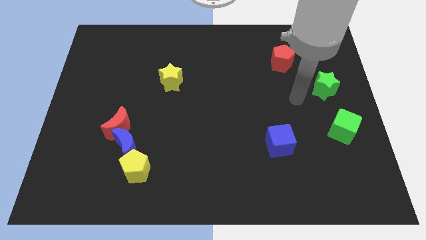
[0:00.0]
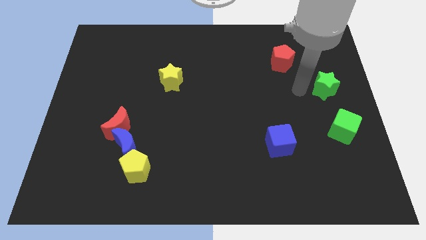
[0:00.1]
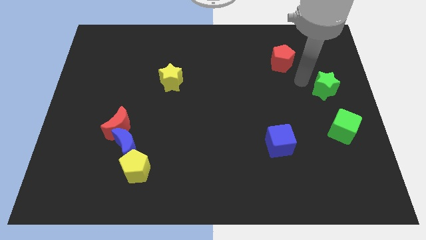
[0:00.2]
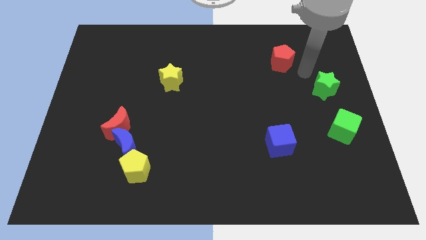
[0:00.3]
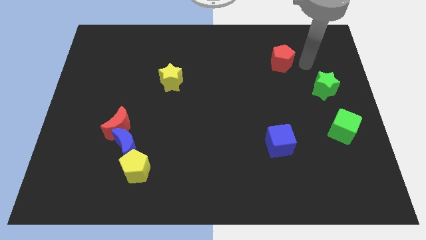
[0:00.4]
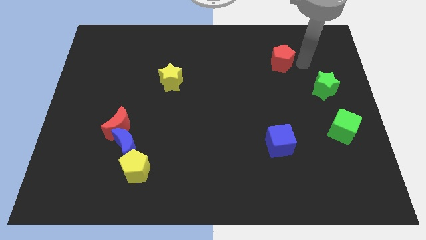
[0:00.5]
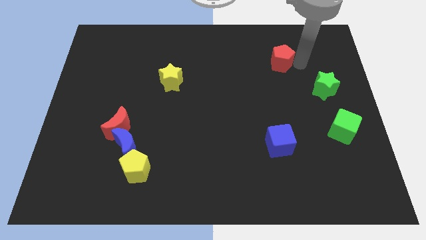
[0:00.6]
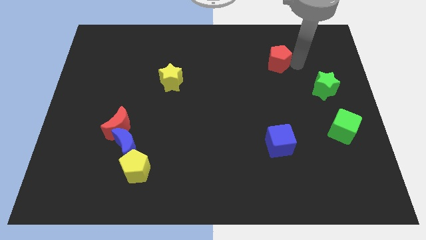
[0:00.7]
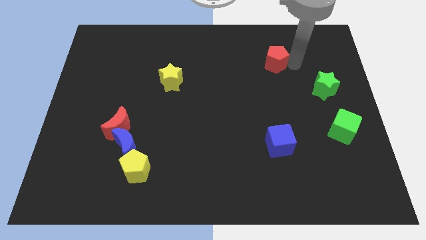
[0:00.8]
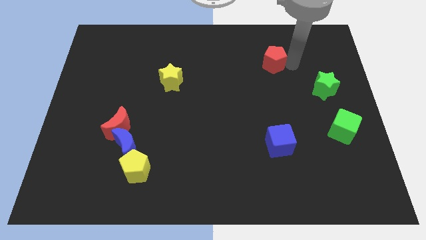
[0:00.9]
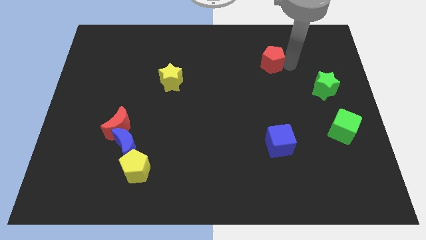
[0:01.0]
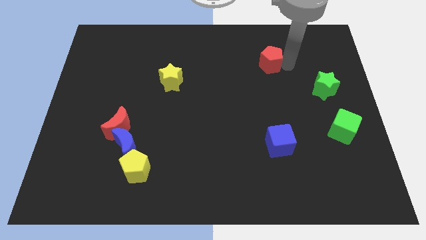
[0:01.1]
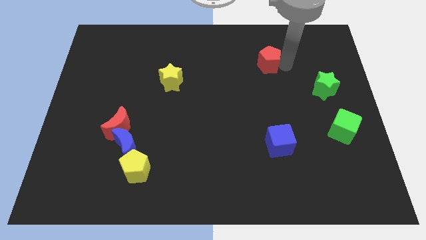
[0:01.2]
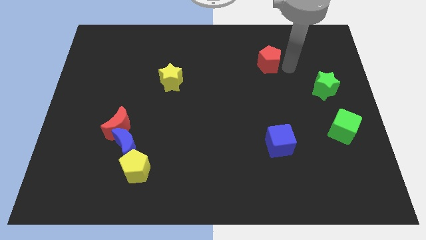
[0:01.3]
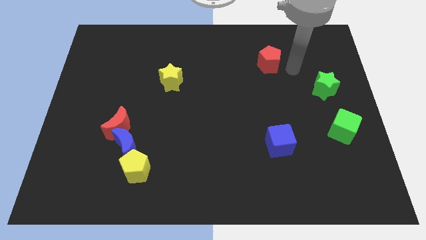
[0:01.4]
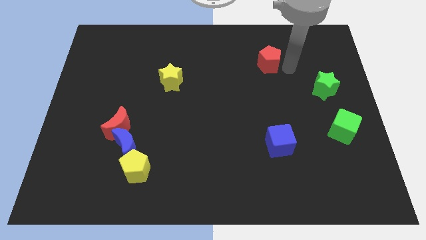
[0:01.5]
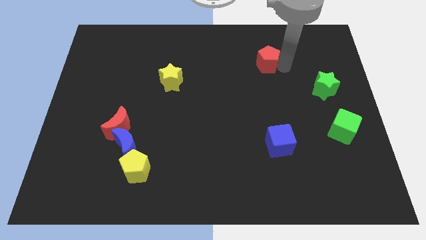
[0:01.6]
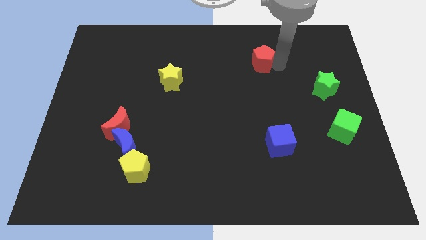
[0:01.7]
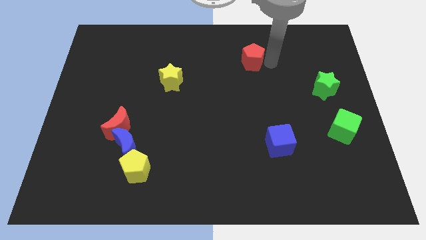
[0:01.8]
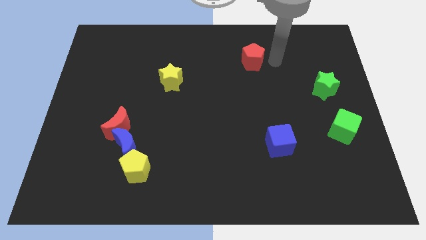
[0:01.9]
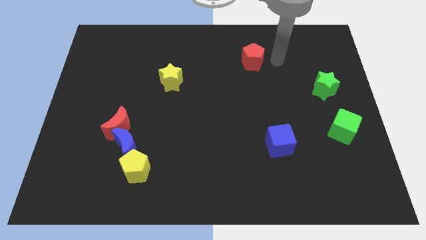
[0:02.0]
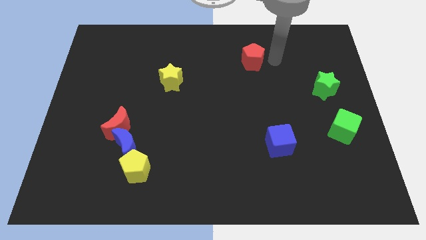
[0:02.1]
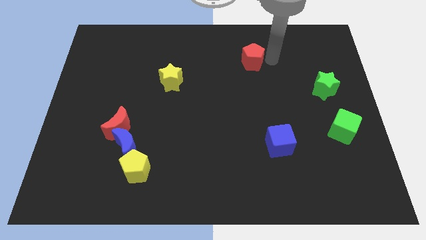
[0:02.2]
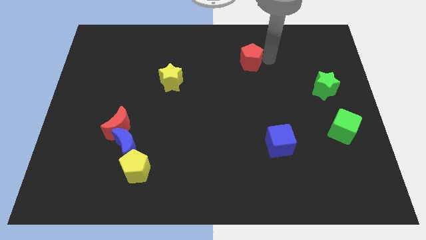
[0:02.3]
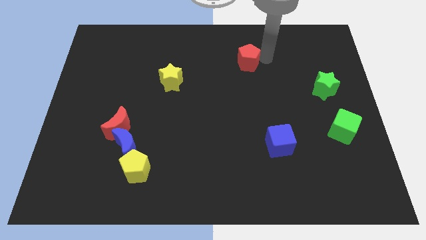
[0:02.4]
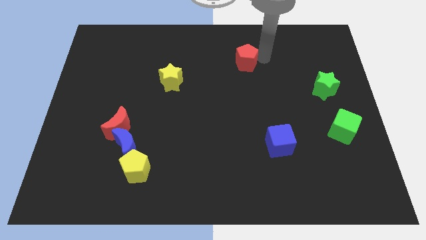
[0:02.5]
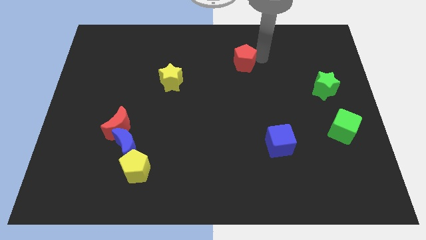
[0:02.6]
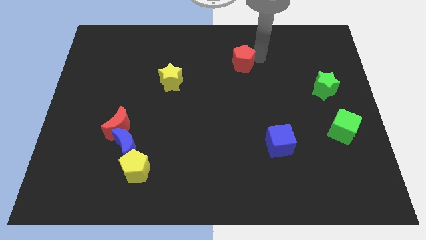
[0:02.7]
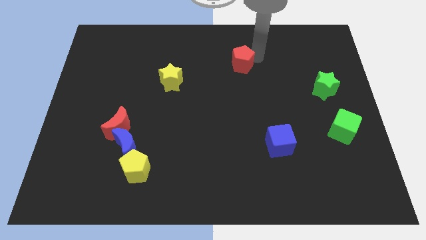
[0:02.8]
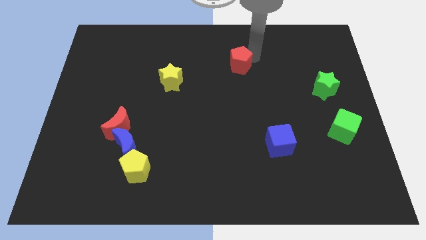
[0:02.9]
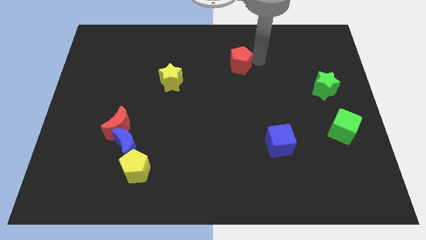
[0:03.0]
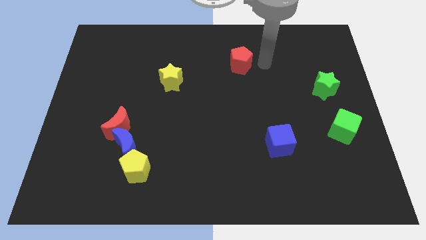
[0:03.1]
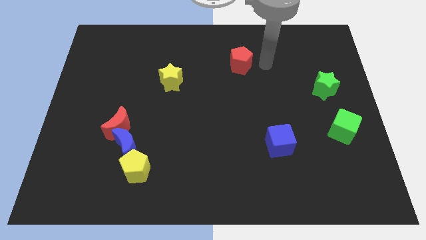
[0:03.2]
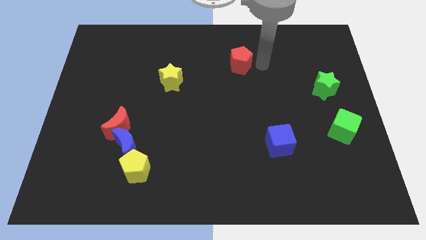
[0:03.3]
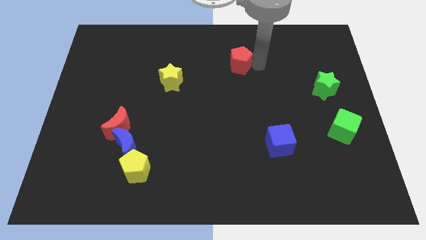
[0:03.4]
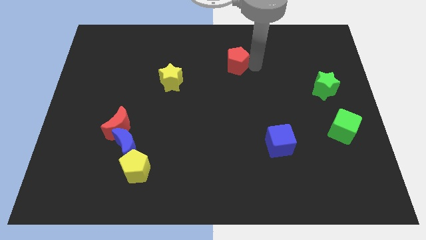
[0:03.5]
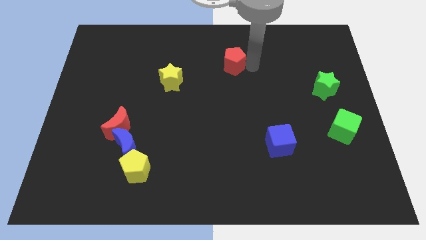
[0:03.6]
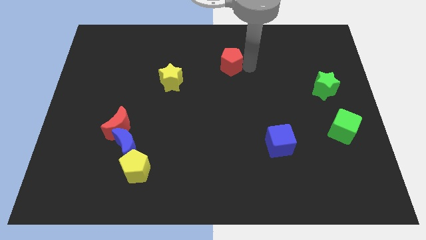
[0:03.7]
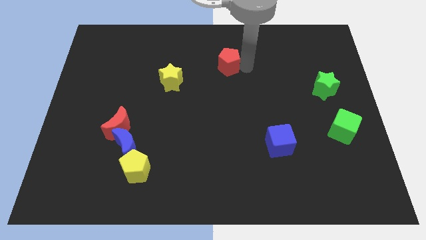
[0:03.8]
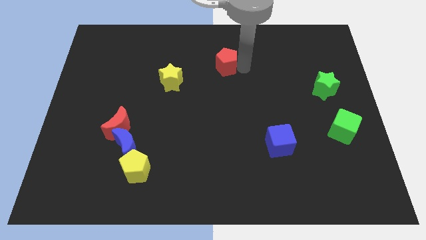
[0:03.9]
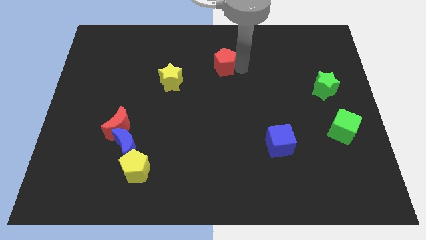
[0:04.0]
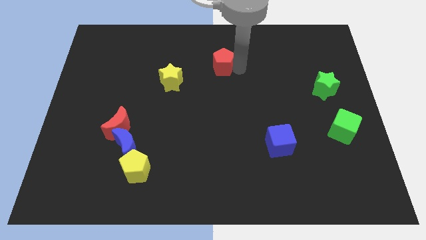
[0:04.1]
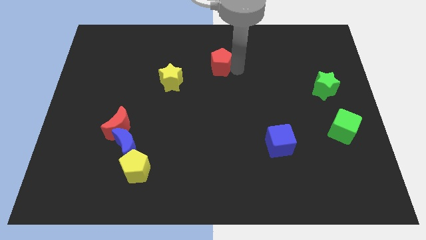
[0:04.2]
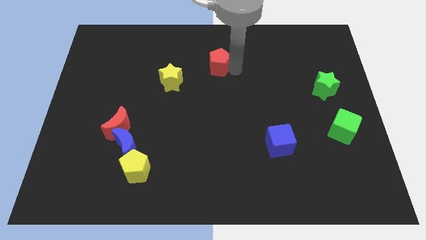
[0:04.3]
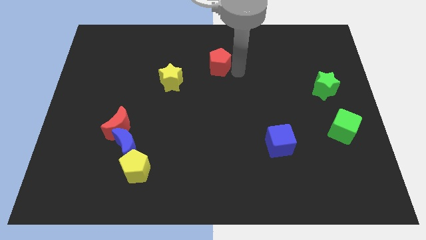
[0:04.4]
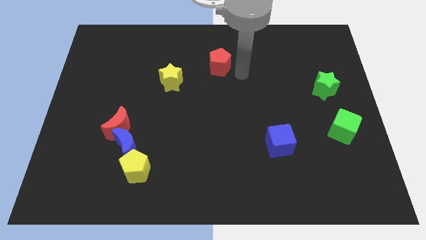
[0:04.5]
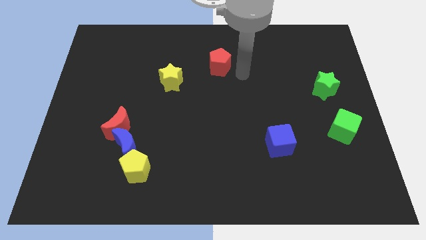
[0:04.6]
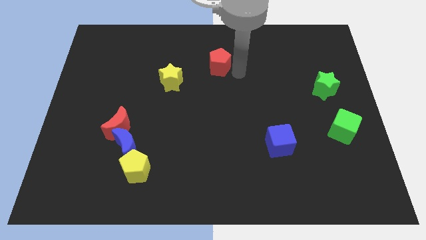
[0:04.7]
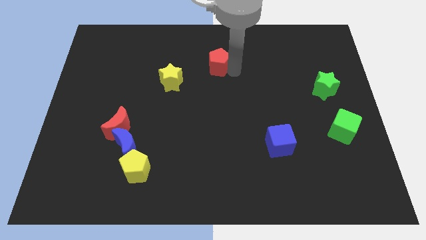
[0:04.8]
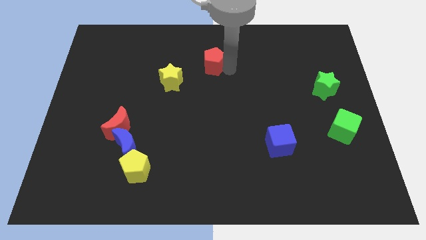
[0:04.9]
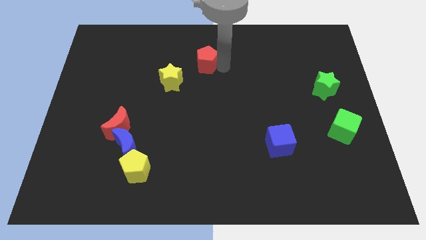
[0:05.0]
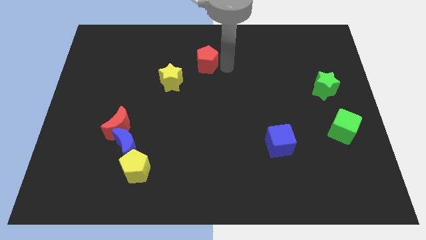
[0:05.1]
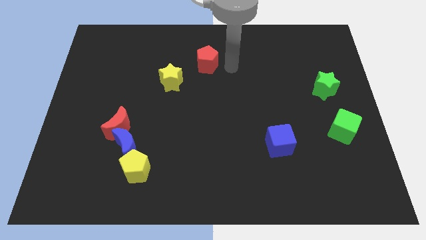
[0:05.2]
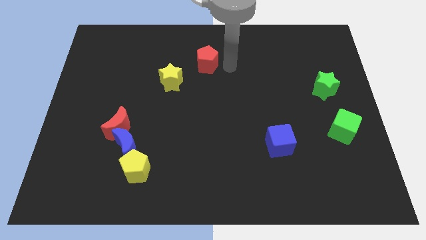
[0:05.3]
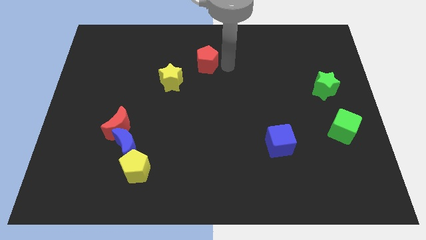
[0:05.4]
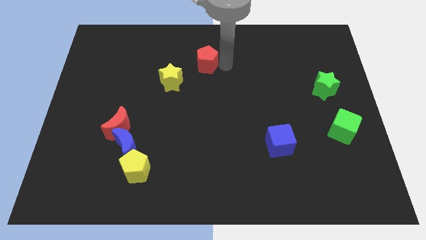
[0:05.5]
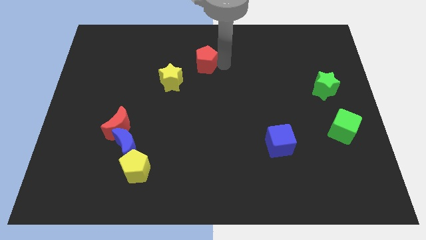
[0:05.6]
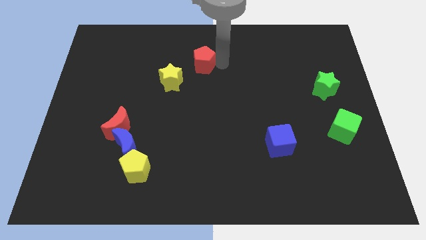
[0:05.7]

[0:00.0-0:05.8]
slide the red pentagon left

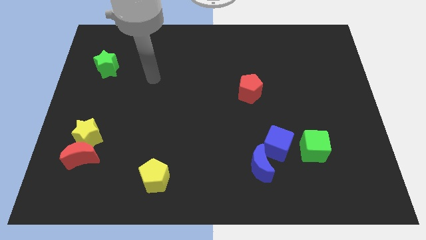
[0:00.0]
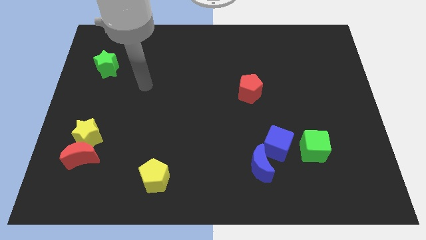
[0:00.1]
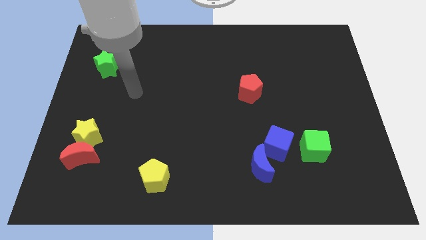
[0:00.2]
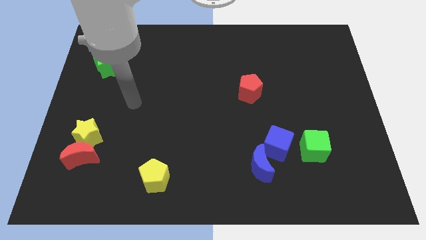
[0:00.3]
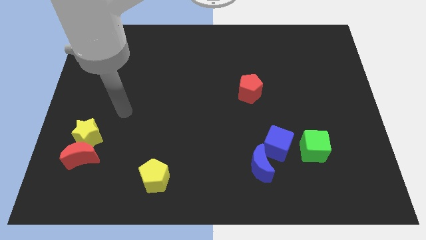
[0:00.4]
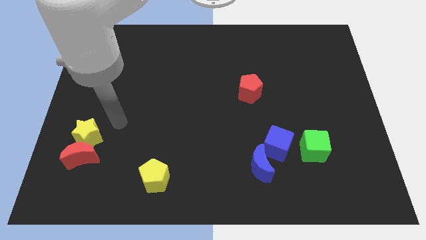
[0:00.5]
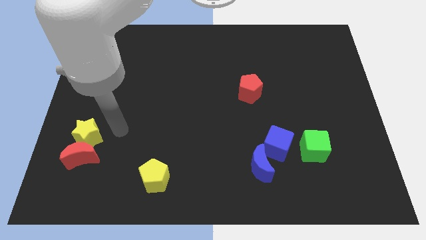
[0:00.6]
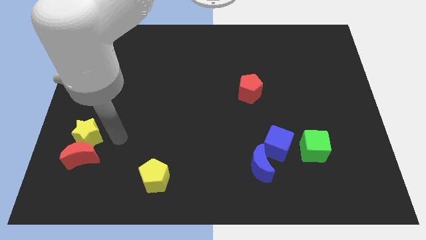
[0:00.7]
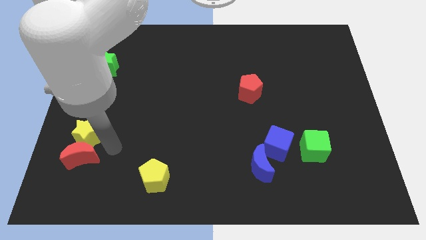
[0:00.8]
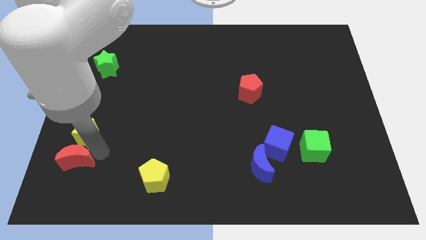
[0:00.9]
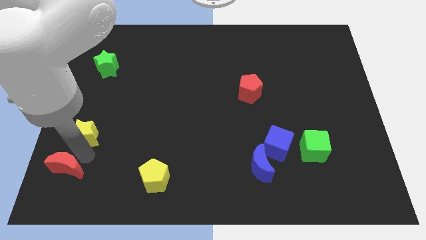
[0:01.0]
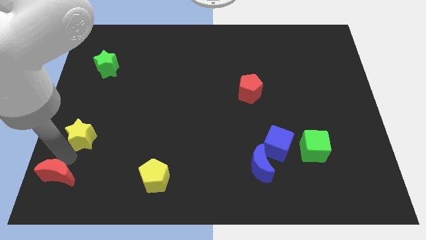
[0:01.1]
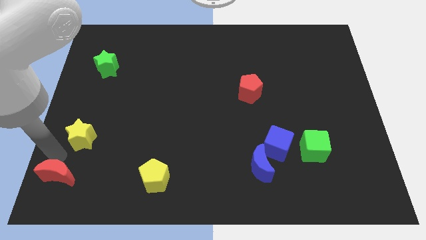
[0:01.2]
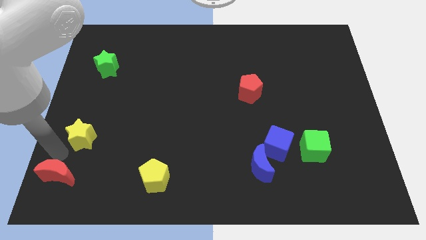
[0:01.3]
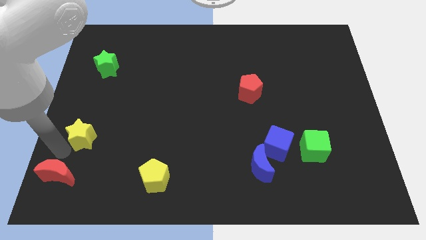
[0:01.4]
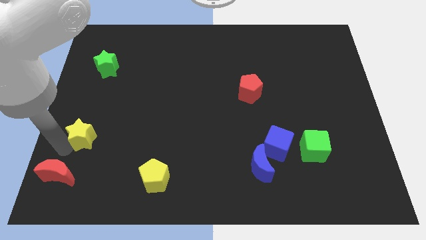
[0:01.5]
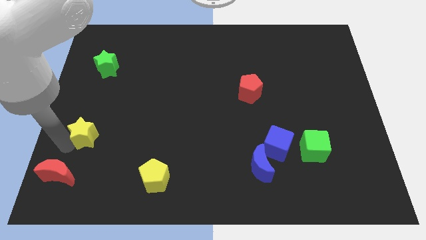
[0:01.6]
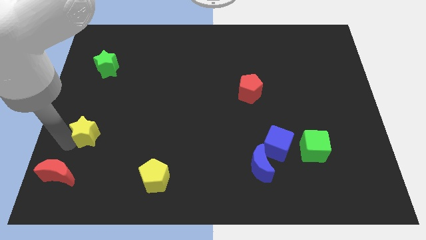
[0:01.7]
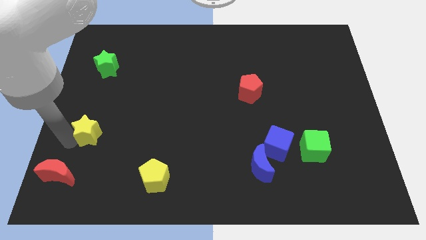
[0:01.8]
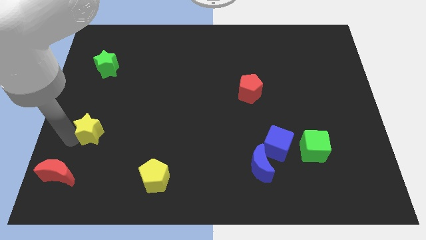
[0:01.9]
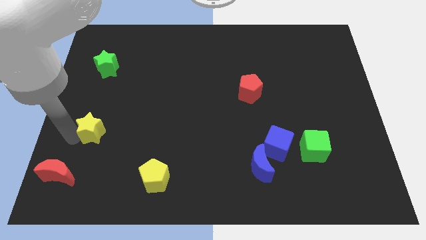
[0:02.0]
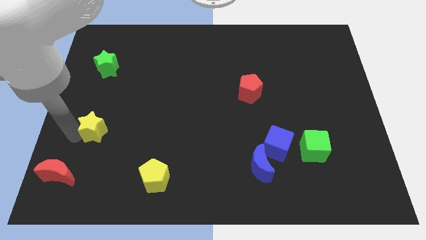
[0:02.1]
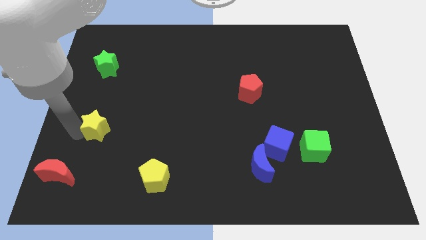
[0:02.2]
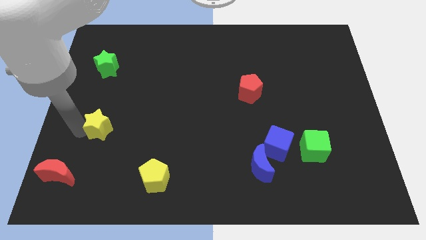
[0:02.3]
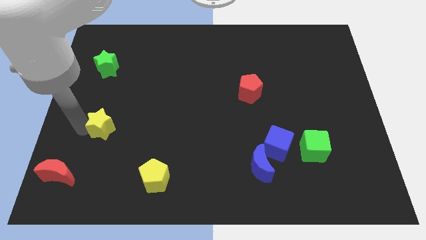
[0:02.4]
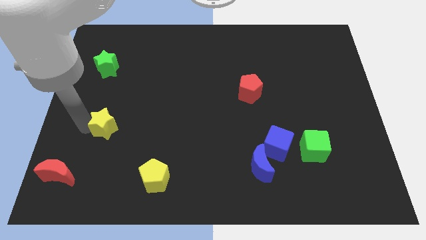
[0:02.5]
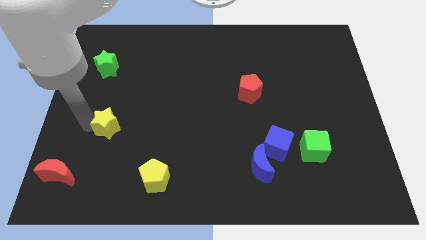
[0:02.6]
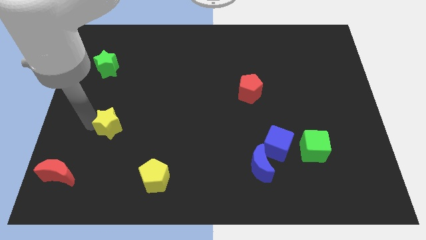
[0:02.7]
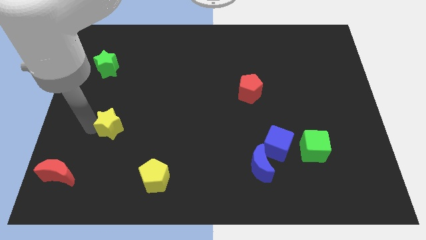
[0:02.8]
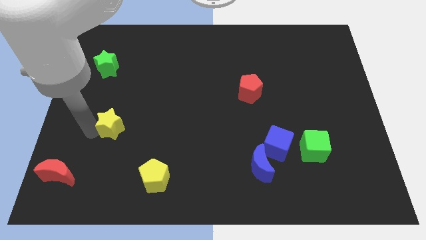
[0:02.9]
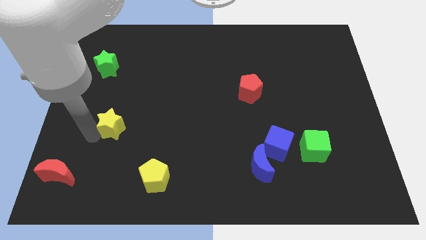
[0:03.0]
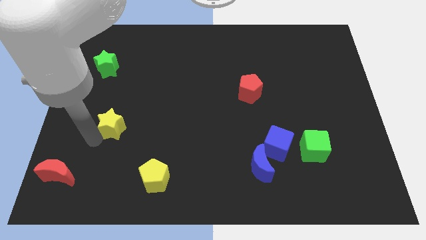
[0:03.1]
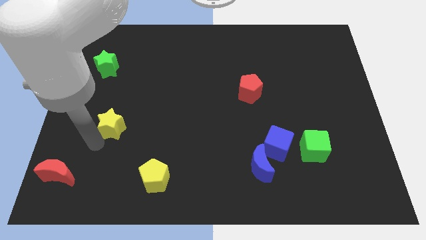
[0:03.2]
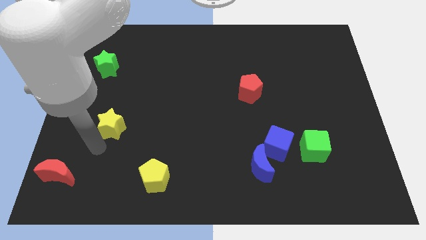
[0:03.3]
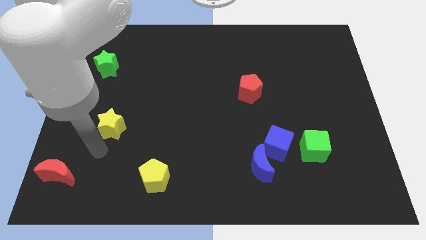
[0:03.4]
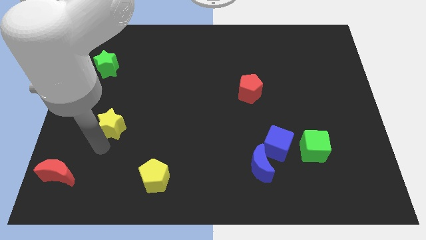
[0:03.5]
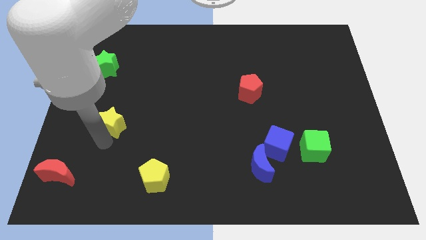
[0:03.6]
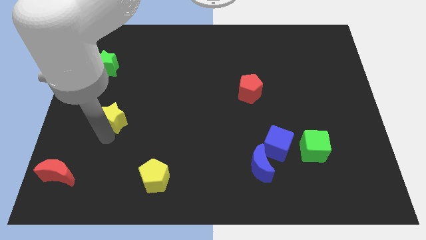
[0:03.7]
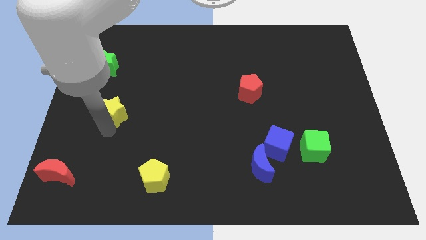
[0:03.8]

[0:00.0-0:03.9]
slide the yellow star up and then right a little bit
